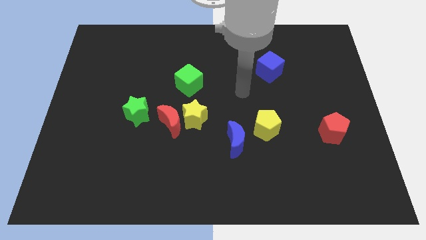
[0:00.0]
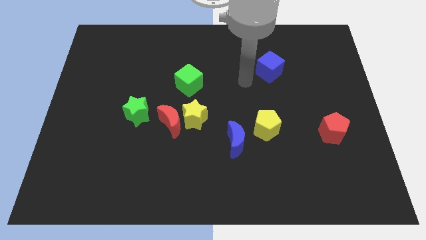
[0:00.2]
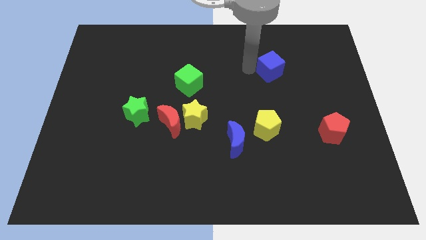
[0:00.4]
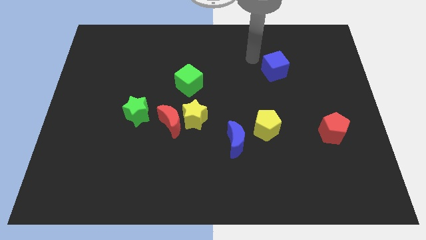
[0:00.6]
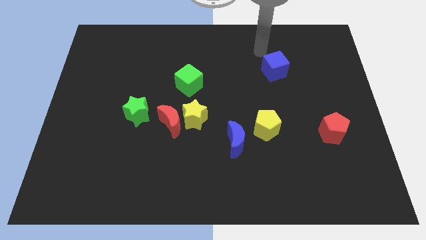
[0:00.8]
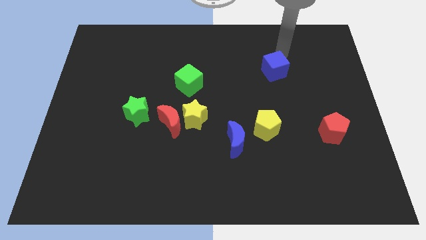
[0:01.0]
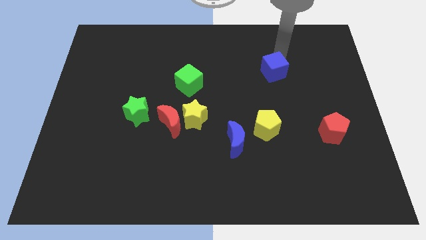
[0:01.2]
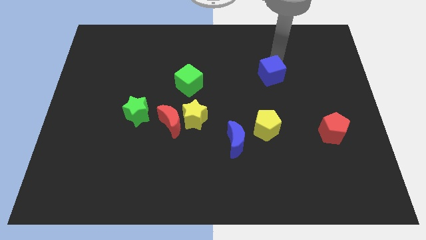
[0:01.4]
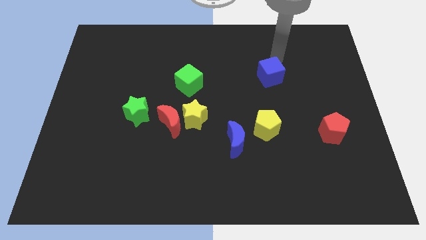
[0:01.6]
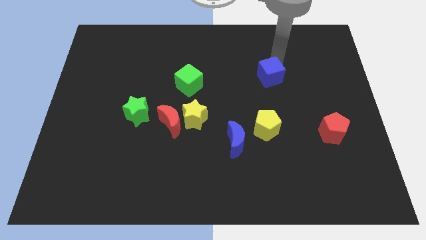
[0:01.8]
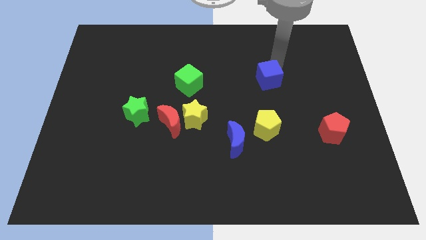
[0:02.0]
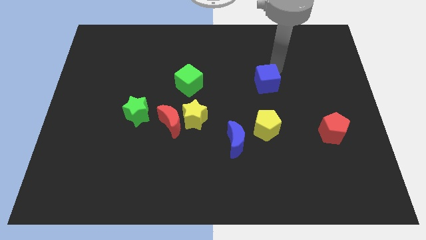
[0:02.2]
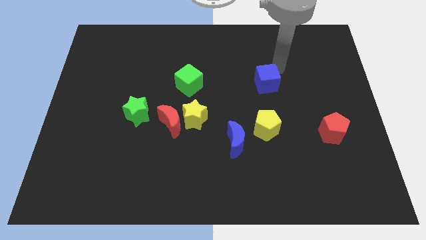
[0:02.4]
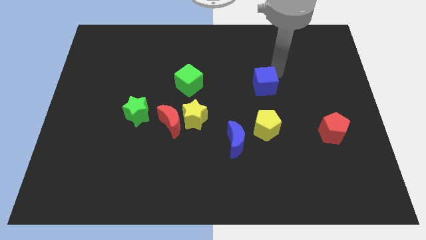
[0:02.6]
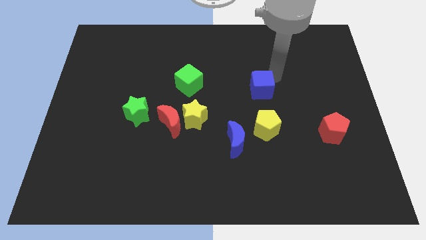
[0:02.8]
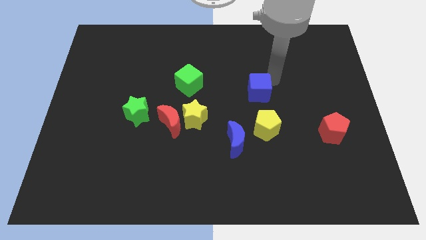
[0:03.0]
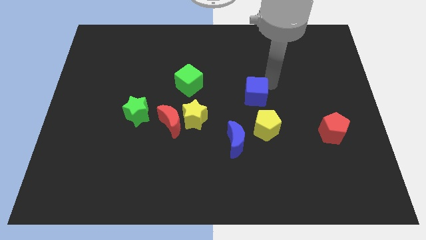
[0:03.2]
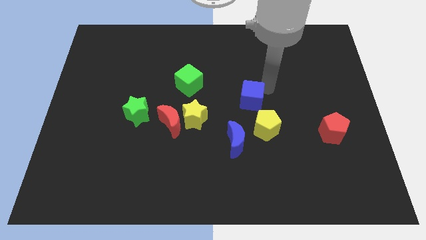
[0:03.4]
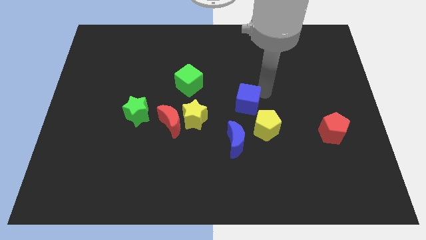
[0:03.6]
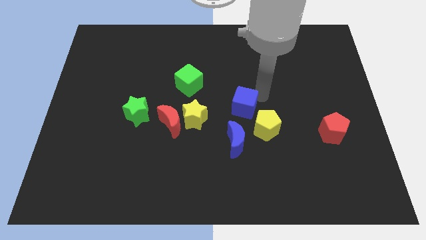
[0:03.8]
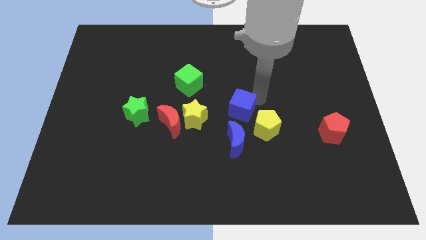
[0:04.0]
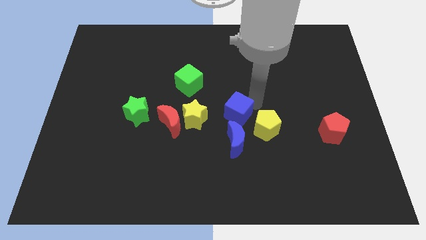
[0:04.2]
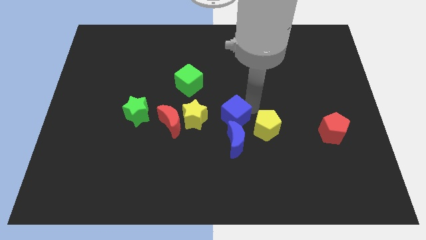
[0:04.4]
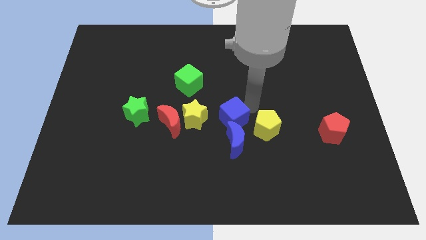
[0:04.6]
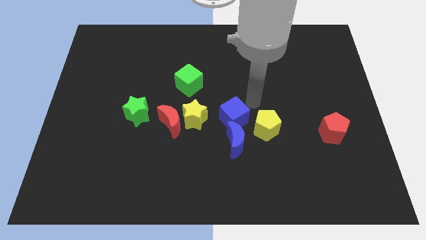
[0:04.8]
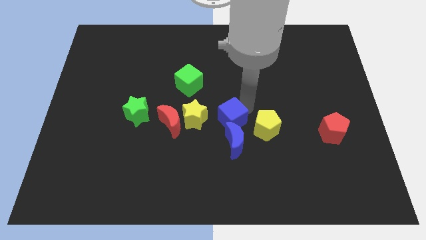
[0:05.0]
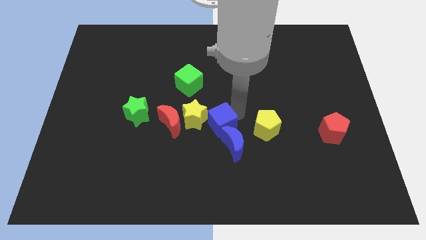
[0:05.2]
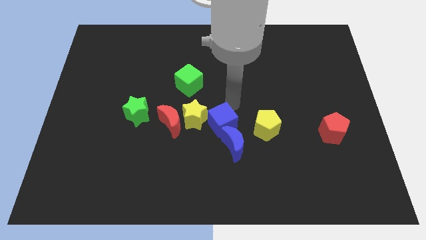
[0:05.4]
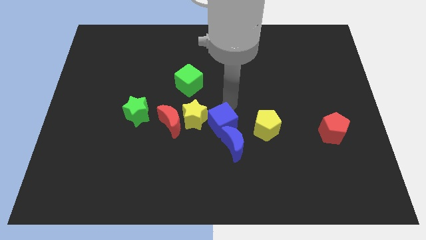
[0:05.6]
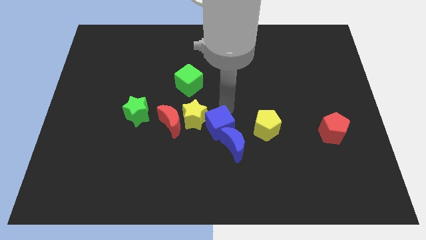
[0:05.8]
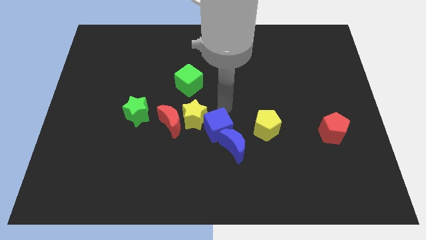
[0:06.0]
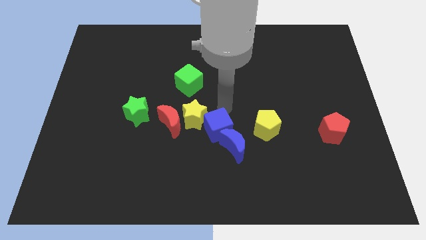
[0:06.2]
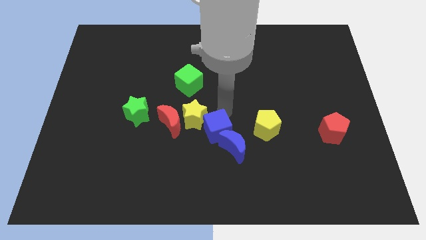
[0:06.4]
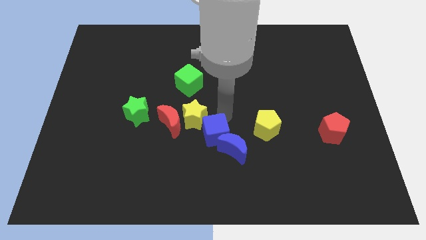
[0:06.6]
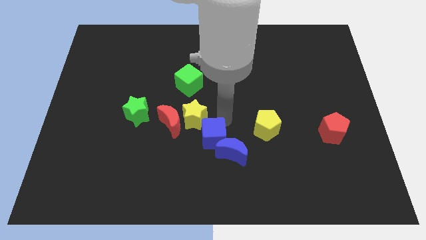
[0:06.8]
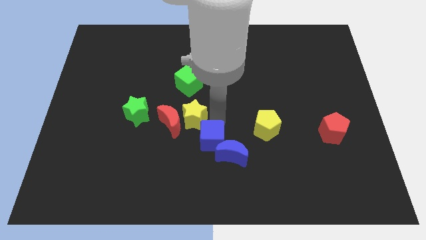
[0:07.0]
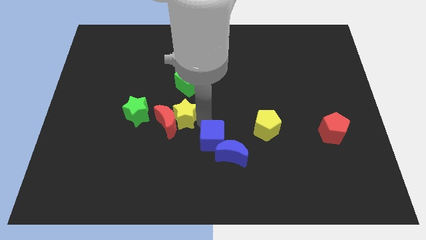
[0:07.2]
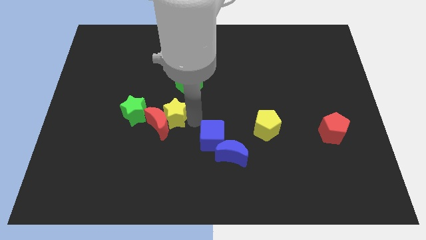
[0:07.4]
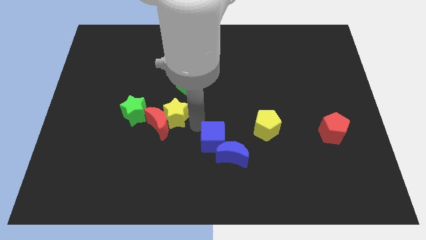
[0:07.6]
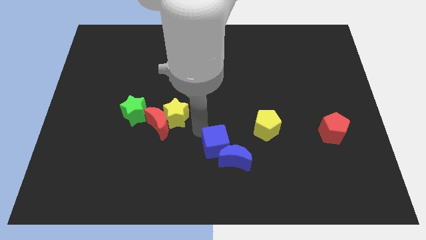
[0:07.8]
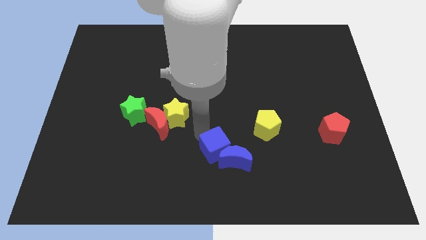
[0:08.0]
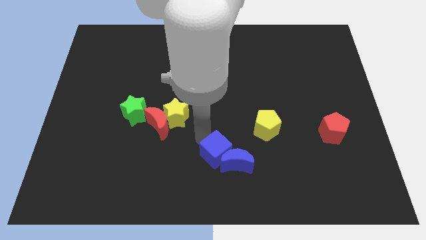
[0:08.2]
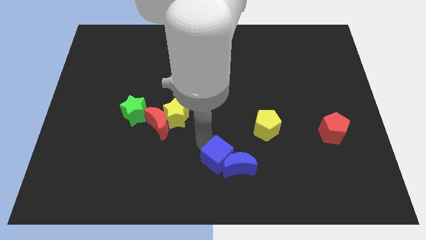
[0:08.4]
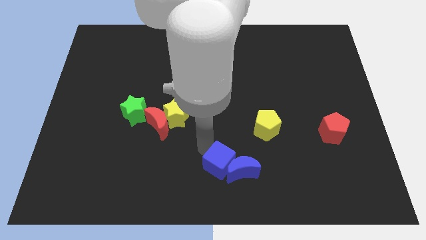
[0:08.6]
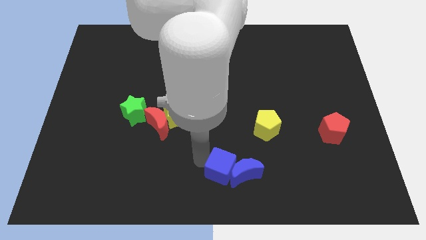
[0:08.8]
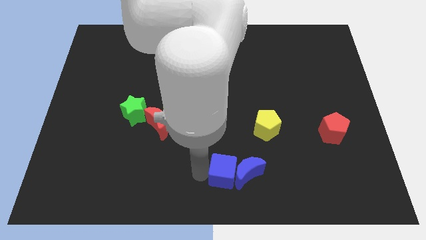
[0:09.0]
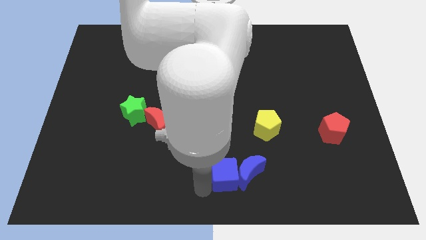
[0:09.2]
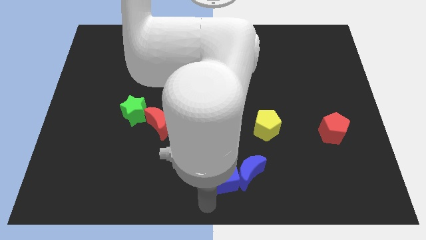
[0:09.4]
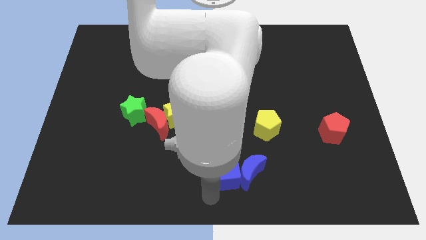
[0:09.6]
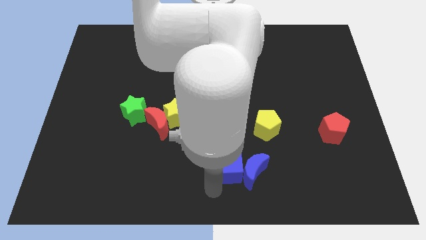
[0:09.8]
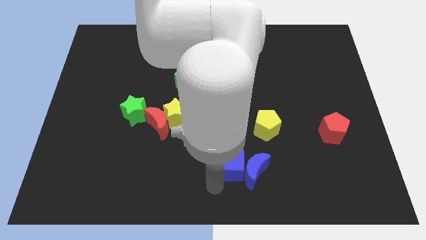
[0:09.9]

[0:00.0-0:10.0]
move the blue cube diagonally down and to the left of the yellow pentagon

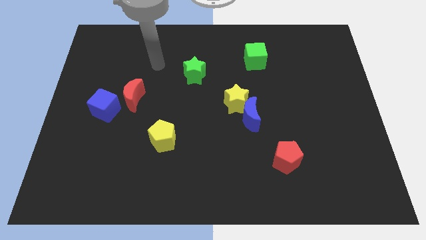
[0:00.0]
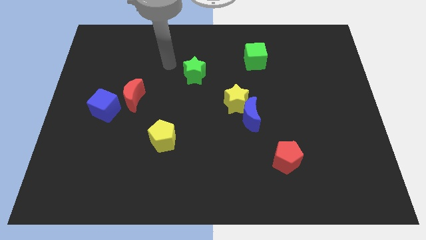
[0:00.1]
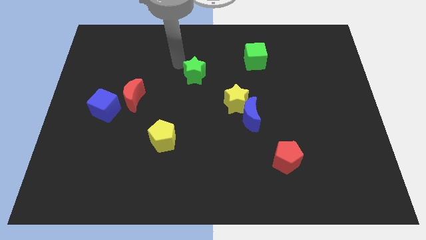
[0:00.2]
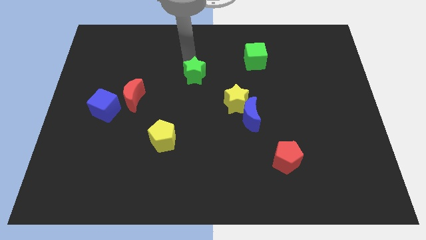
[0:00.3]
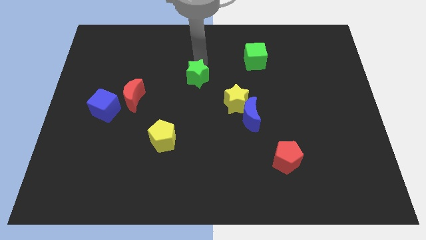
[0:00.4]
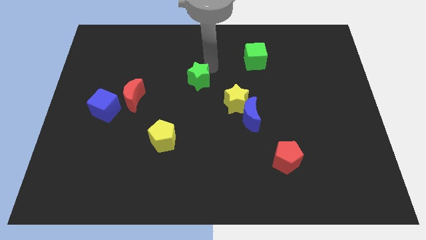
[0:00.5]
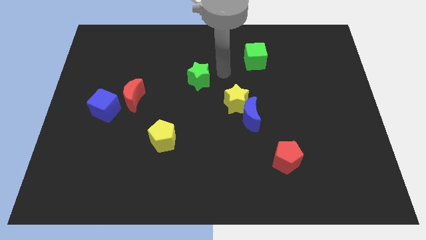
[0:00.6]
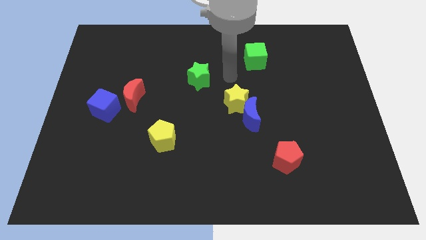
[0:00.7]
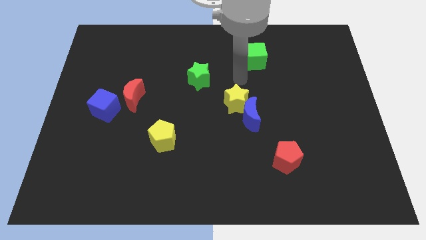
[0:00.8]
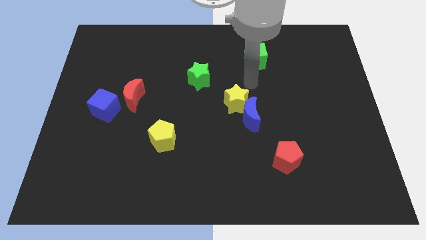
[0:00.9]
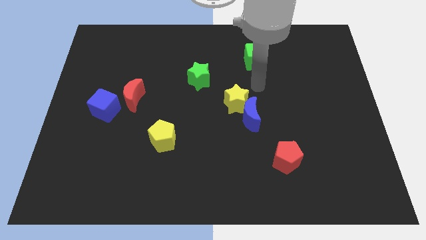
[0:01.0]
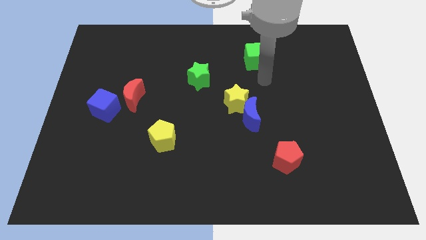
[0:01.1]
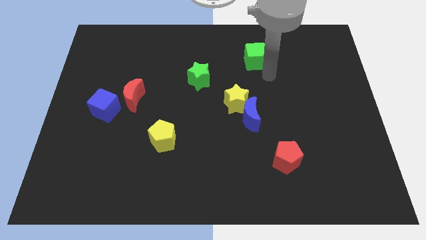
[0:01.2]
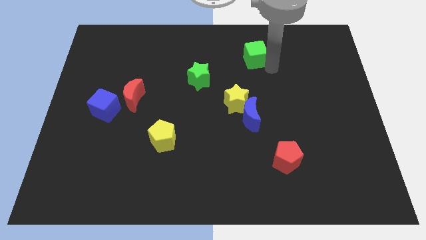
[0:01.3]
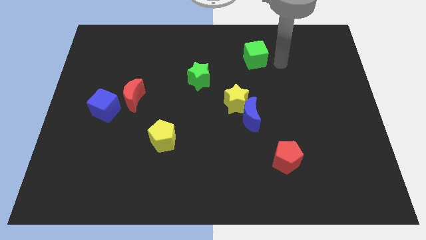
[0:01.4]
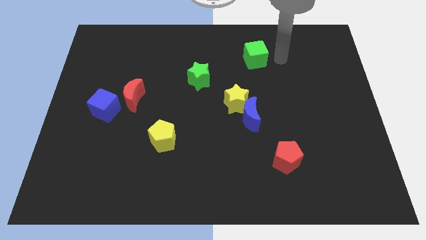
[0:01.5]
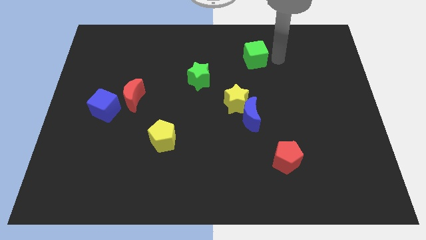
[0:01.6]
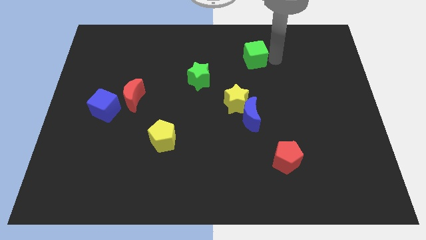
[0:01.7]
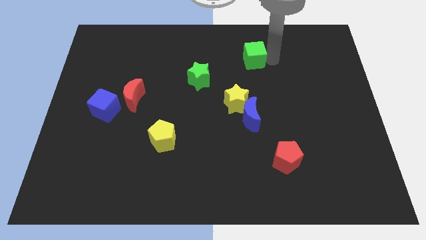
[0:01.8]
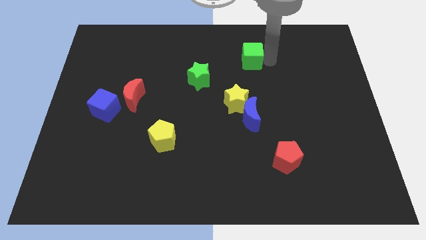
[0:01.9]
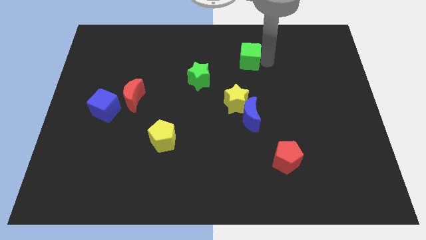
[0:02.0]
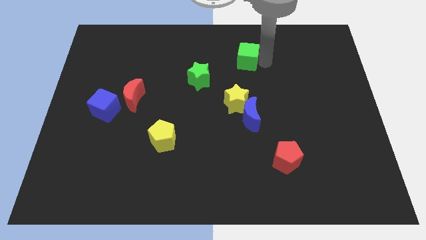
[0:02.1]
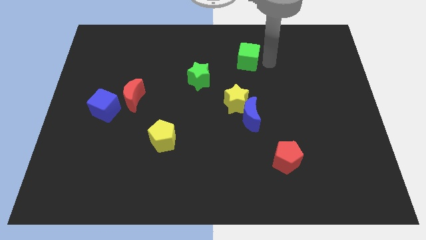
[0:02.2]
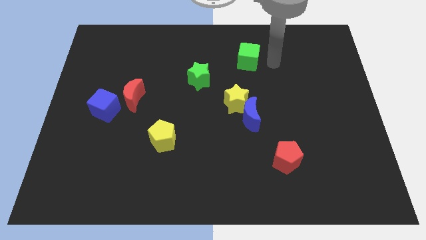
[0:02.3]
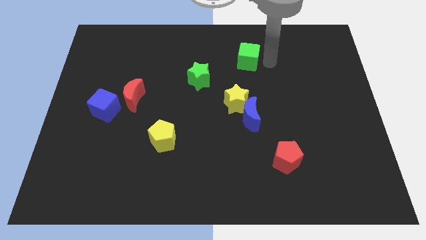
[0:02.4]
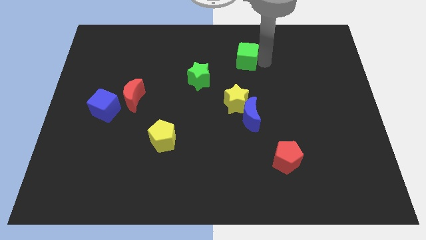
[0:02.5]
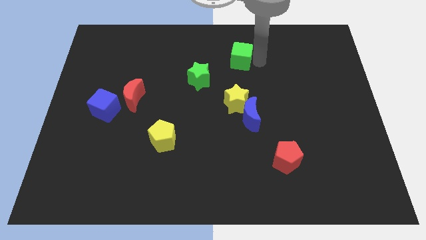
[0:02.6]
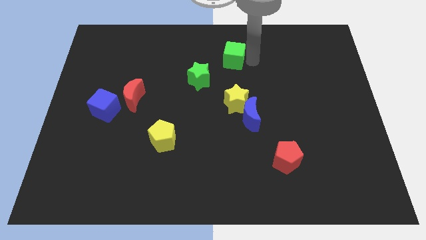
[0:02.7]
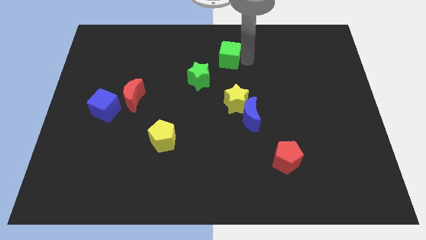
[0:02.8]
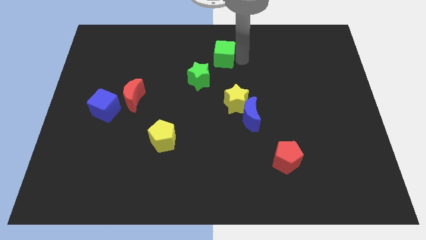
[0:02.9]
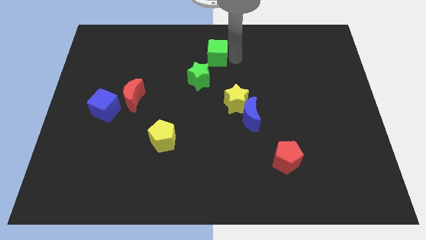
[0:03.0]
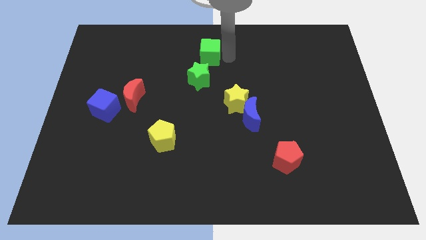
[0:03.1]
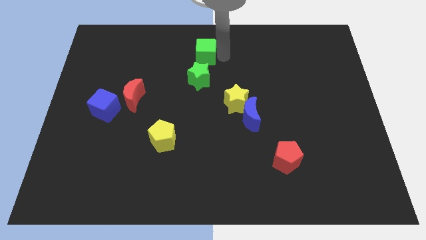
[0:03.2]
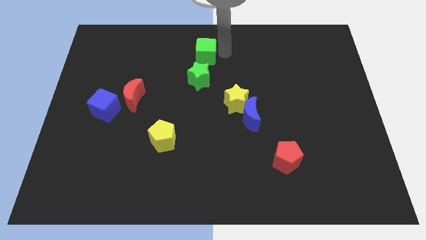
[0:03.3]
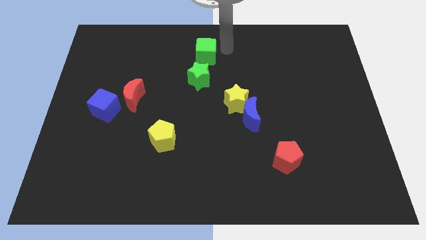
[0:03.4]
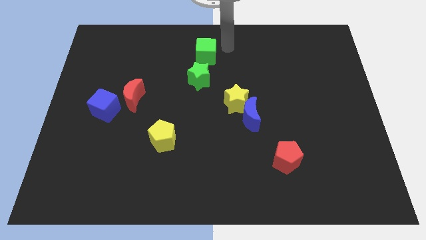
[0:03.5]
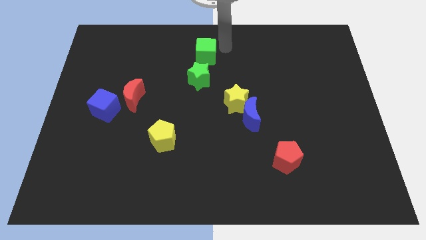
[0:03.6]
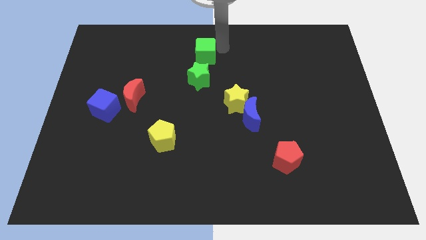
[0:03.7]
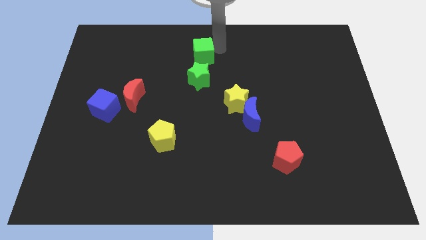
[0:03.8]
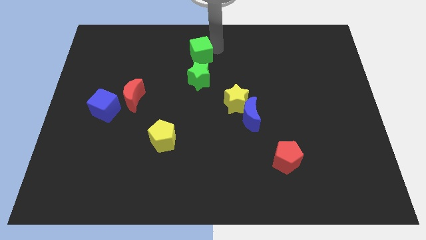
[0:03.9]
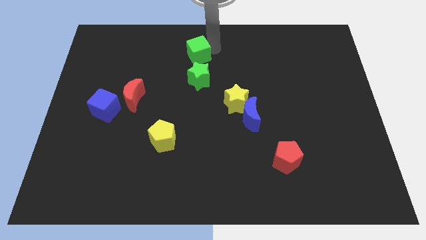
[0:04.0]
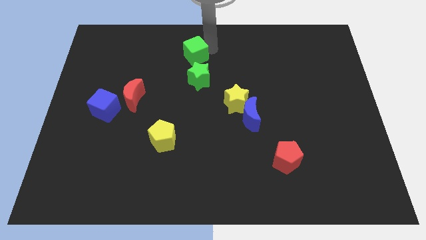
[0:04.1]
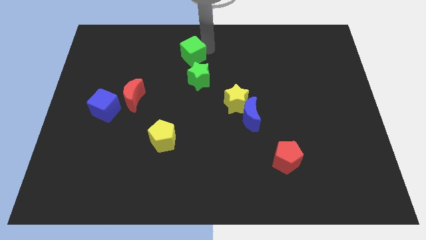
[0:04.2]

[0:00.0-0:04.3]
slide the green cube to the top left side of the green star
